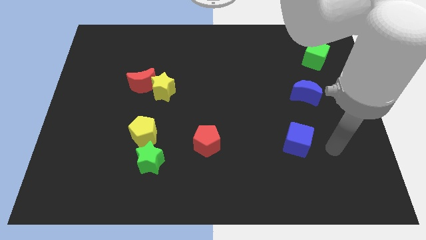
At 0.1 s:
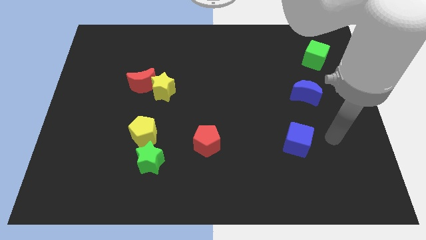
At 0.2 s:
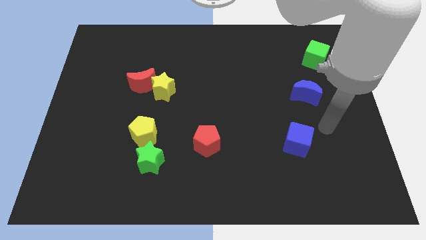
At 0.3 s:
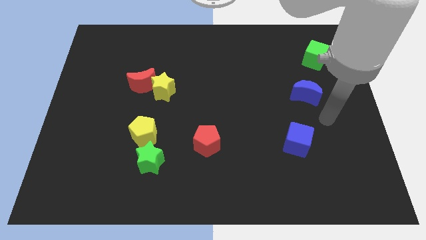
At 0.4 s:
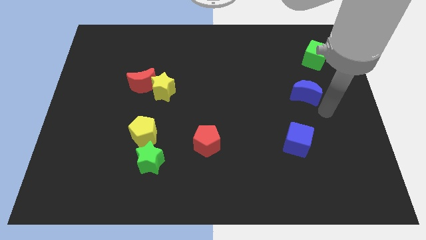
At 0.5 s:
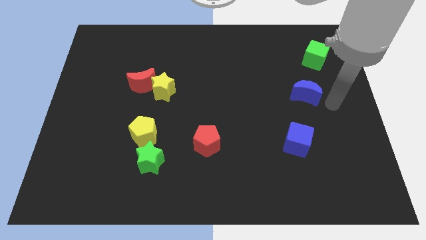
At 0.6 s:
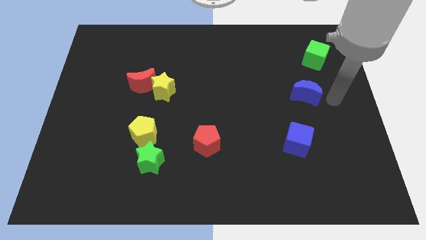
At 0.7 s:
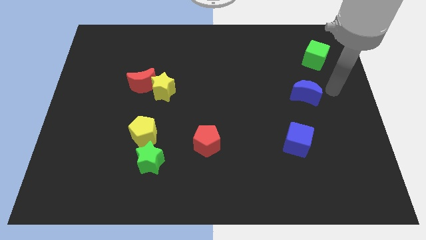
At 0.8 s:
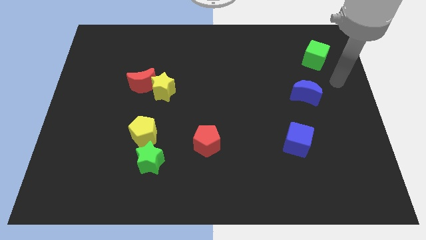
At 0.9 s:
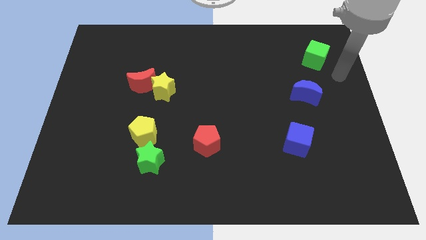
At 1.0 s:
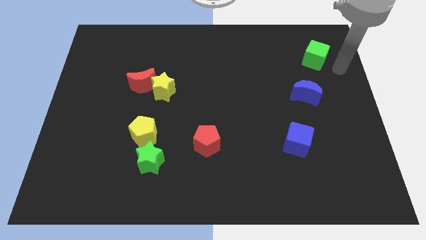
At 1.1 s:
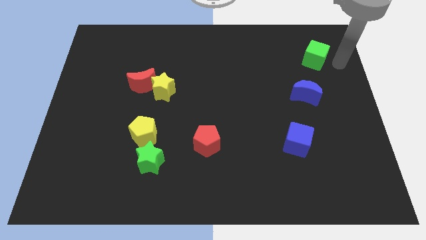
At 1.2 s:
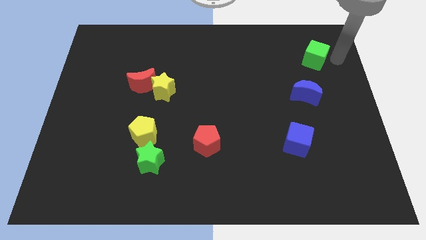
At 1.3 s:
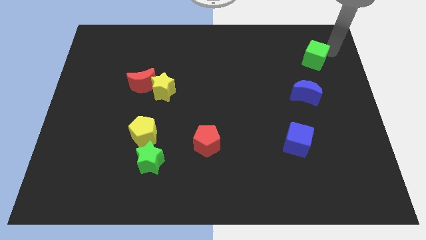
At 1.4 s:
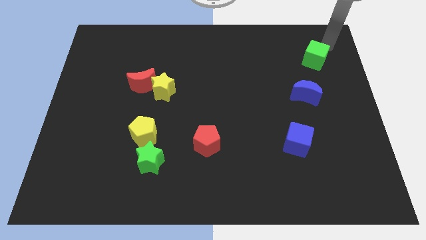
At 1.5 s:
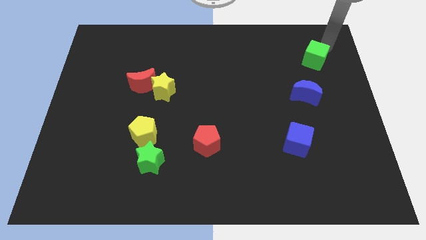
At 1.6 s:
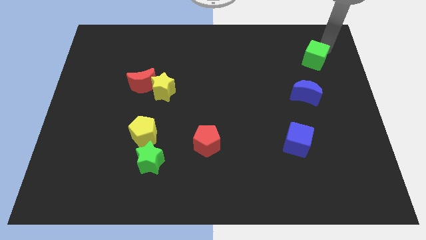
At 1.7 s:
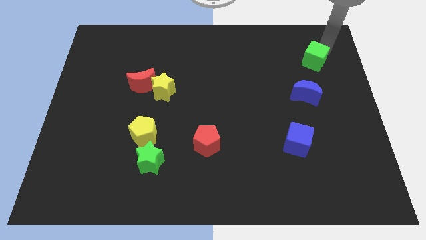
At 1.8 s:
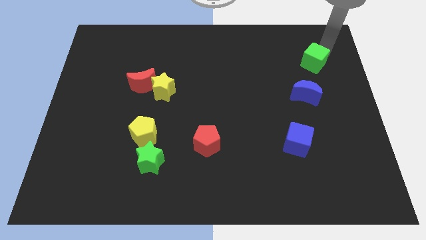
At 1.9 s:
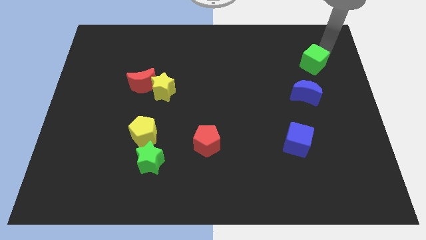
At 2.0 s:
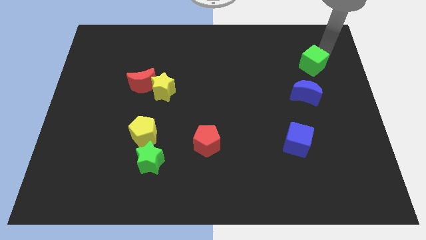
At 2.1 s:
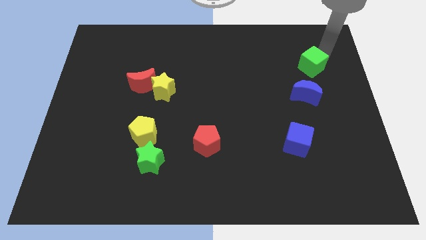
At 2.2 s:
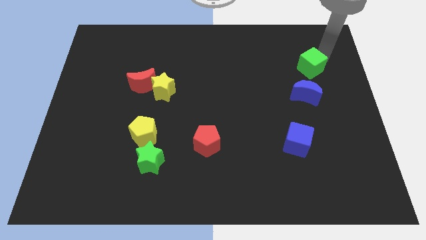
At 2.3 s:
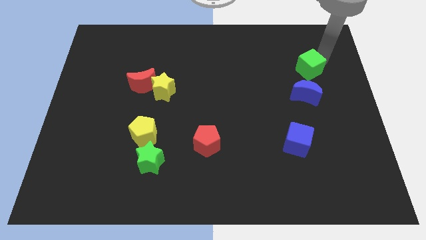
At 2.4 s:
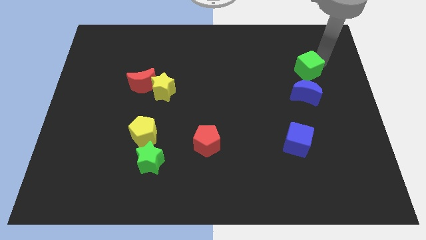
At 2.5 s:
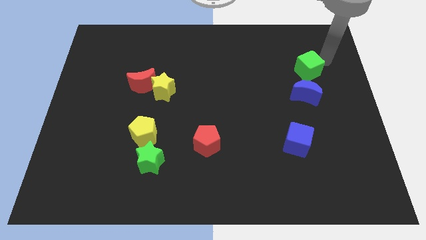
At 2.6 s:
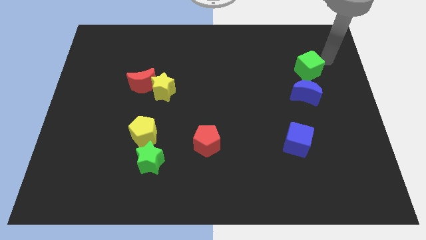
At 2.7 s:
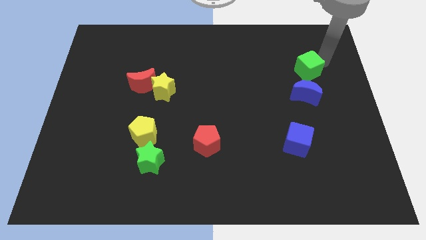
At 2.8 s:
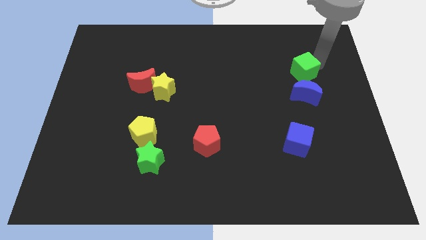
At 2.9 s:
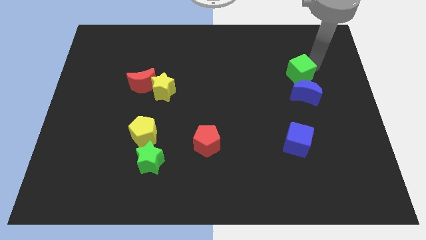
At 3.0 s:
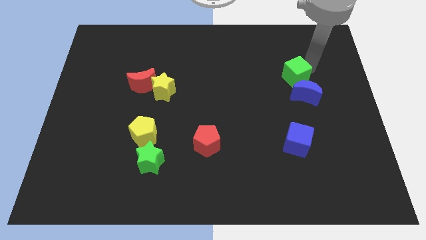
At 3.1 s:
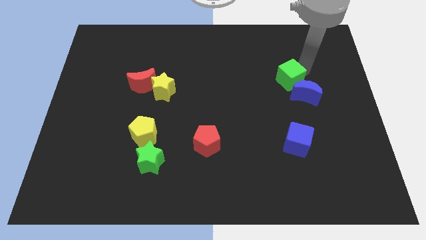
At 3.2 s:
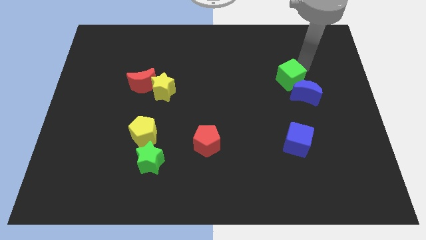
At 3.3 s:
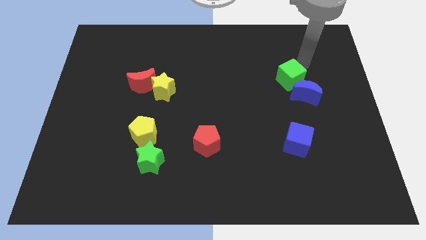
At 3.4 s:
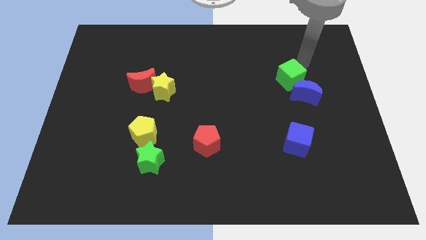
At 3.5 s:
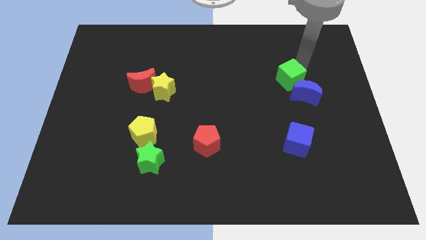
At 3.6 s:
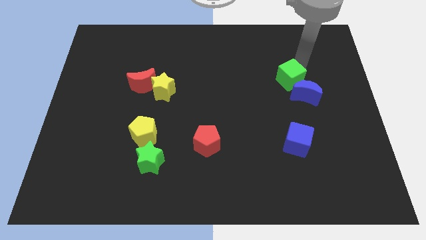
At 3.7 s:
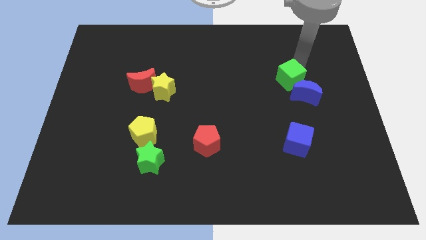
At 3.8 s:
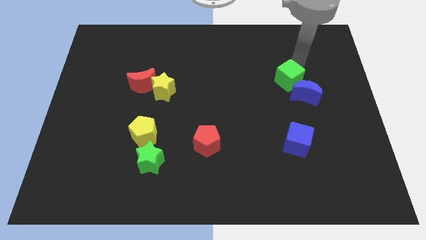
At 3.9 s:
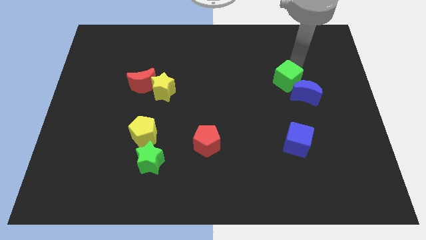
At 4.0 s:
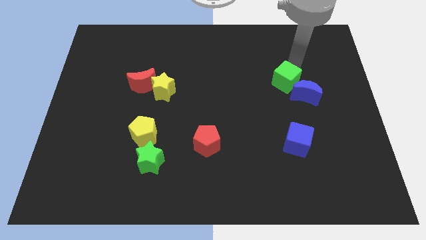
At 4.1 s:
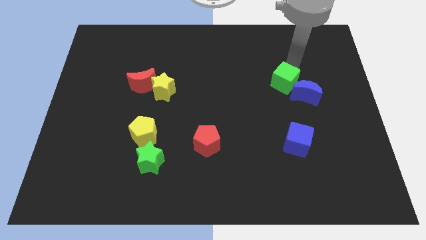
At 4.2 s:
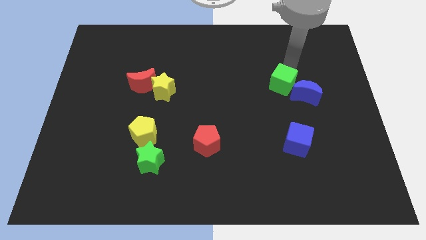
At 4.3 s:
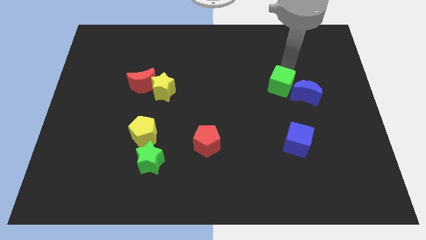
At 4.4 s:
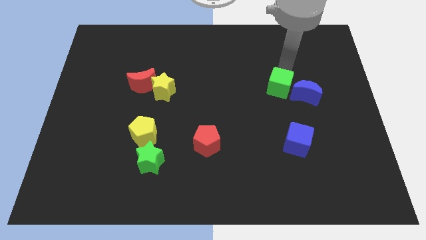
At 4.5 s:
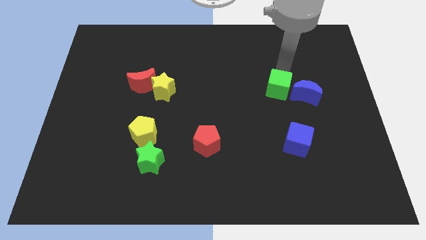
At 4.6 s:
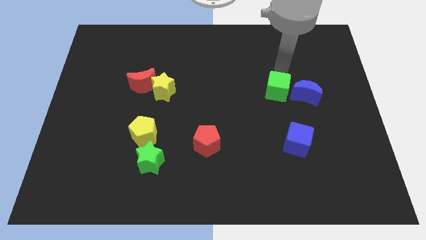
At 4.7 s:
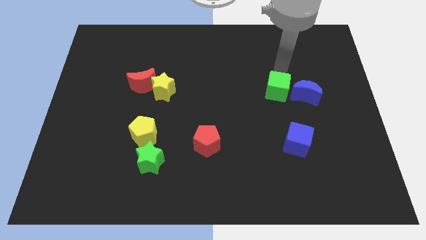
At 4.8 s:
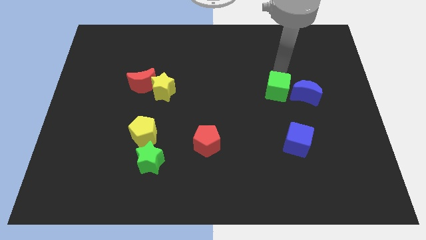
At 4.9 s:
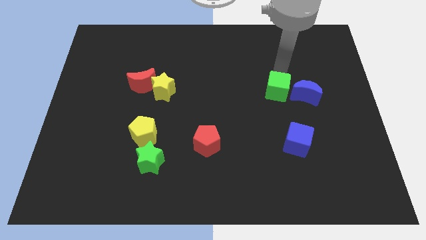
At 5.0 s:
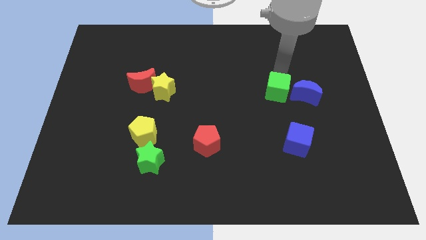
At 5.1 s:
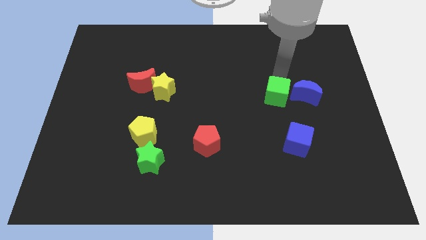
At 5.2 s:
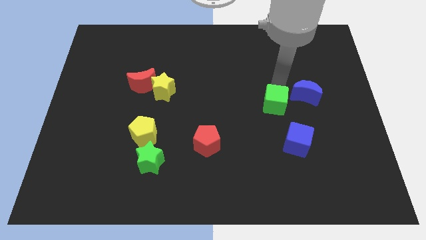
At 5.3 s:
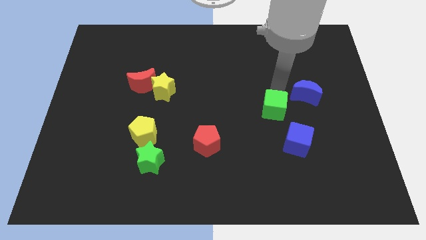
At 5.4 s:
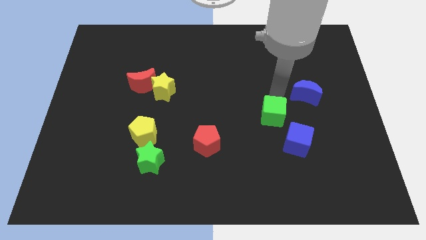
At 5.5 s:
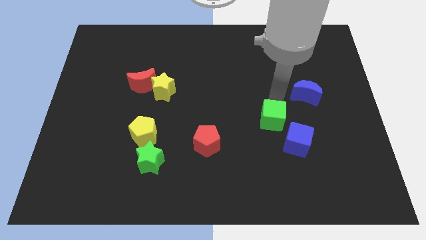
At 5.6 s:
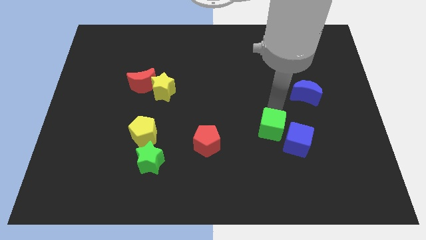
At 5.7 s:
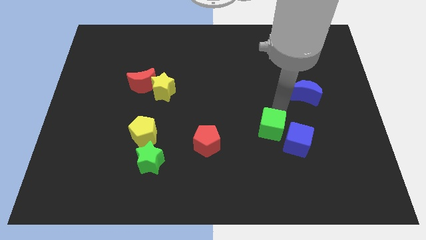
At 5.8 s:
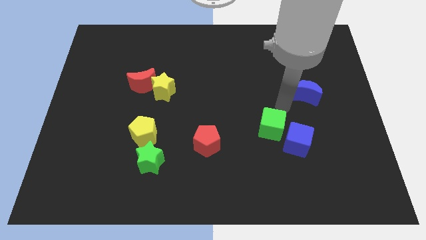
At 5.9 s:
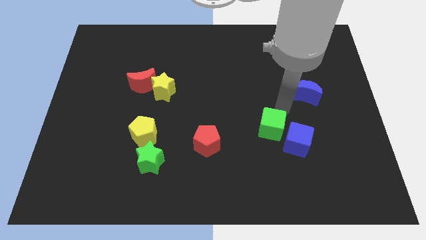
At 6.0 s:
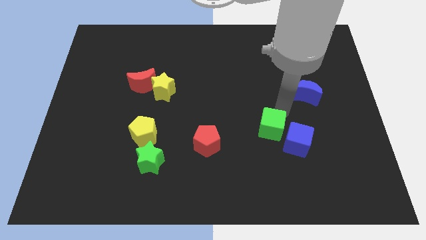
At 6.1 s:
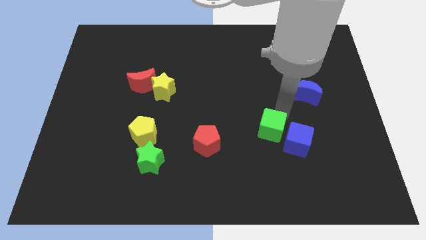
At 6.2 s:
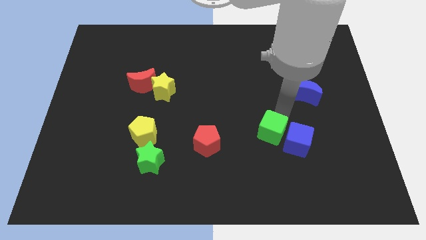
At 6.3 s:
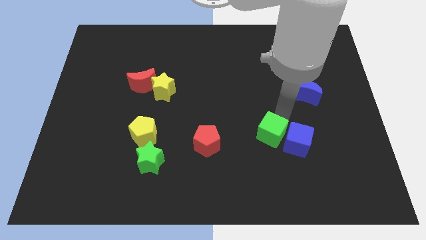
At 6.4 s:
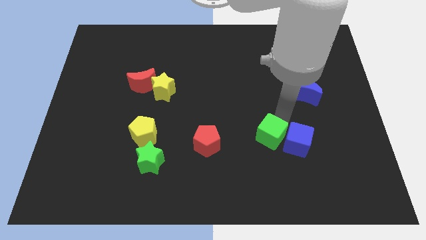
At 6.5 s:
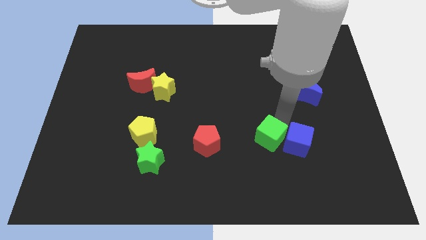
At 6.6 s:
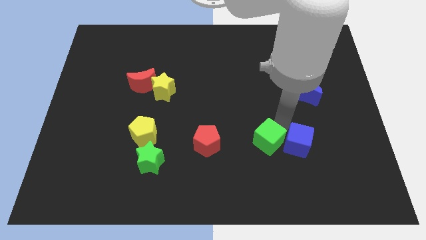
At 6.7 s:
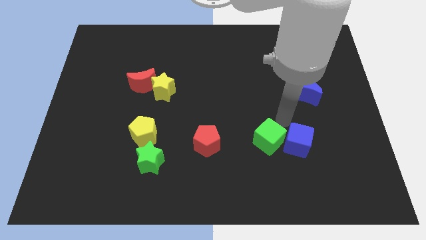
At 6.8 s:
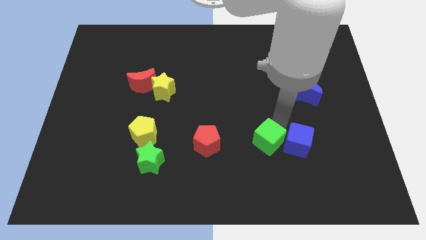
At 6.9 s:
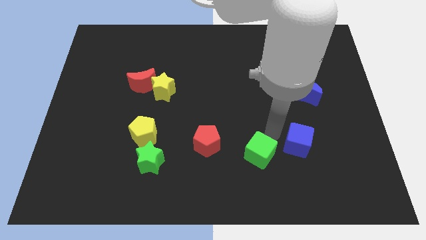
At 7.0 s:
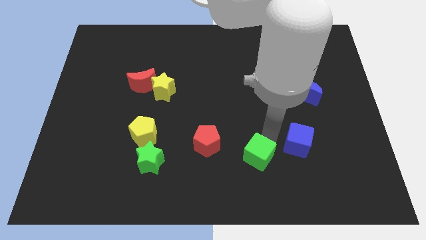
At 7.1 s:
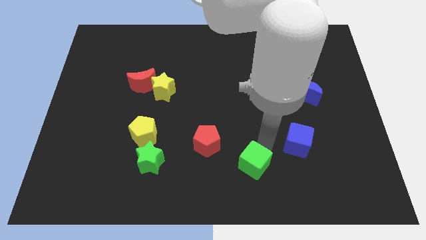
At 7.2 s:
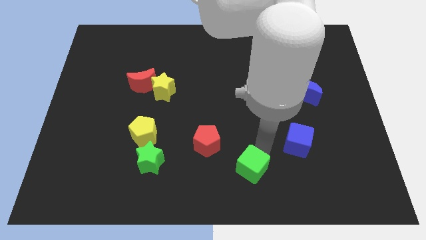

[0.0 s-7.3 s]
move the green cube to the bottom
